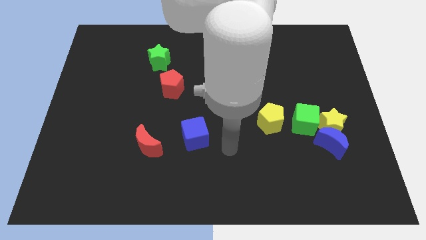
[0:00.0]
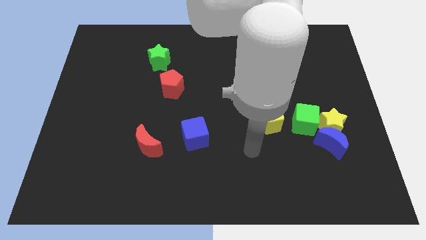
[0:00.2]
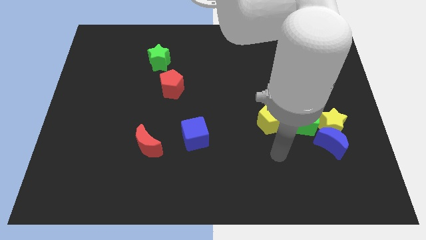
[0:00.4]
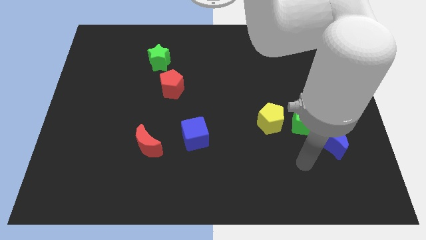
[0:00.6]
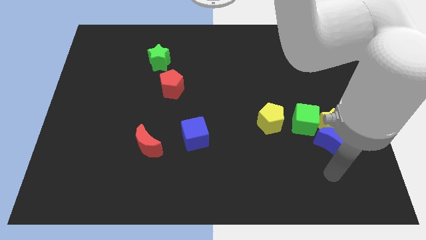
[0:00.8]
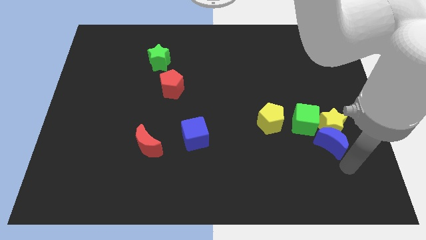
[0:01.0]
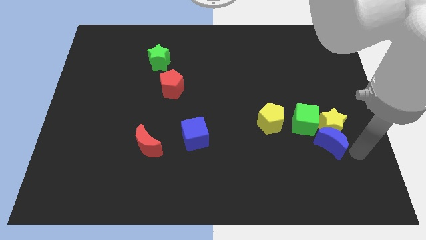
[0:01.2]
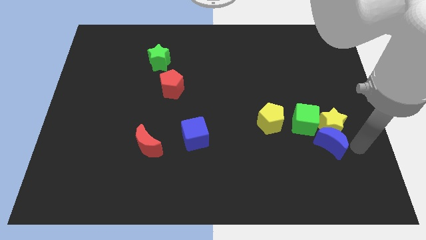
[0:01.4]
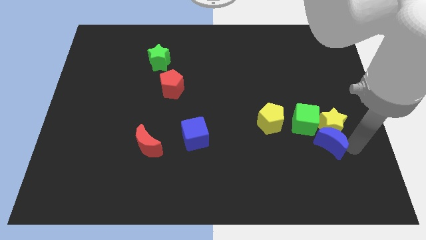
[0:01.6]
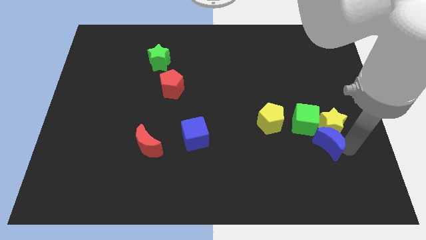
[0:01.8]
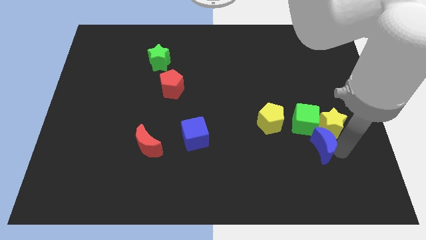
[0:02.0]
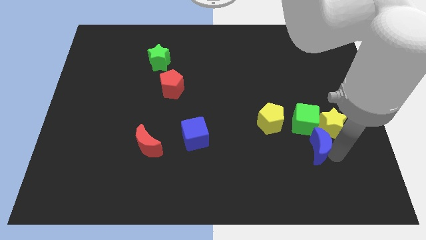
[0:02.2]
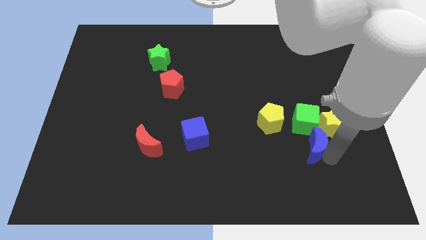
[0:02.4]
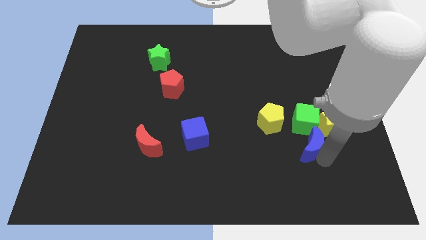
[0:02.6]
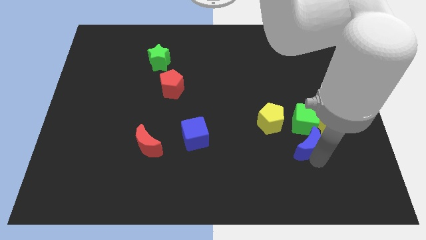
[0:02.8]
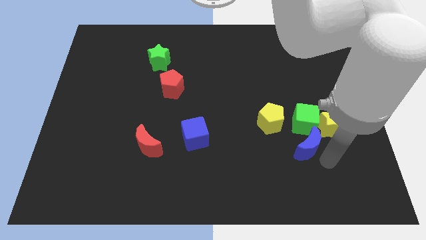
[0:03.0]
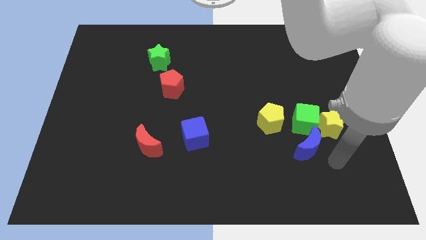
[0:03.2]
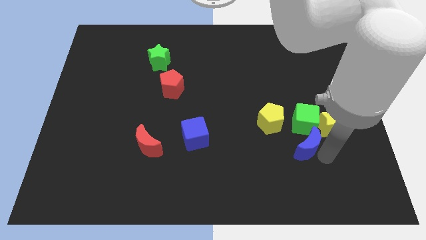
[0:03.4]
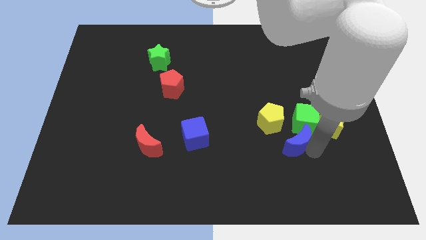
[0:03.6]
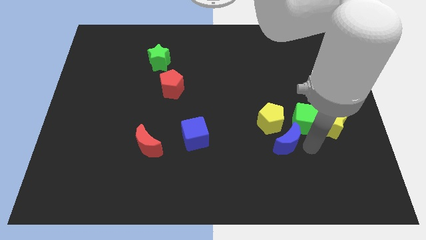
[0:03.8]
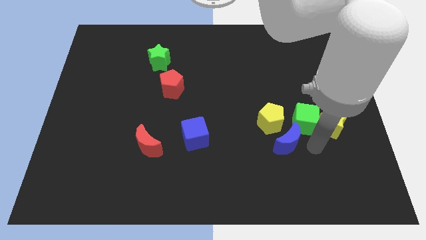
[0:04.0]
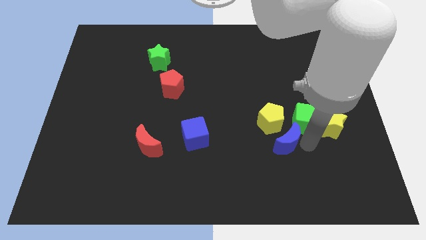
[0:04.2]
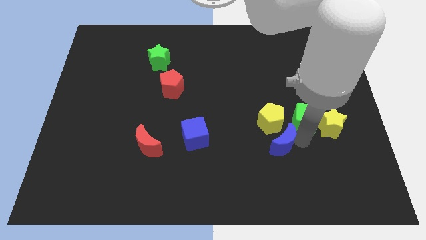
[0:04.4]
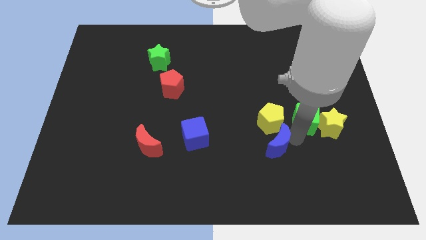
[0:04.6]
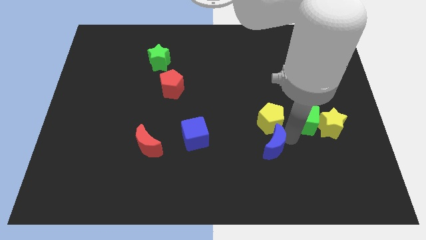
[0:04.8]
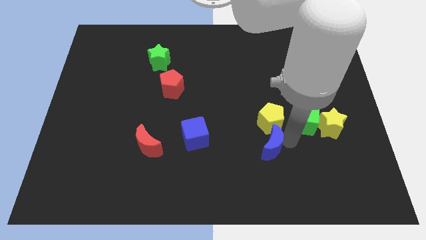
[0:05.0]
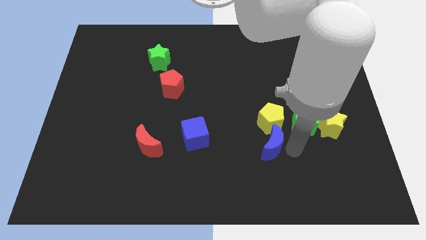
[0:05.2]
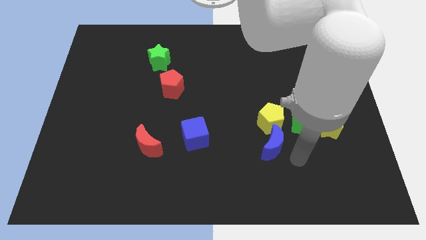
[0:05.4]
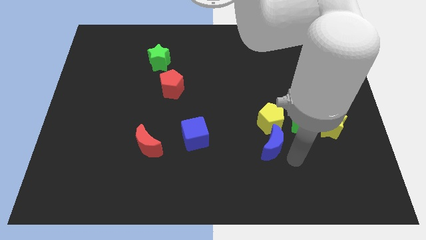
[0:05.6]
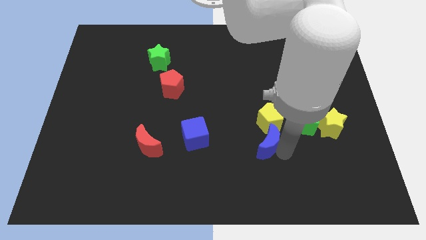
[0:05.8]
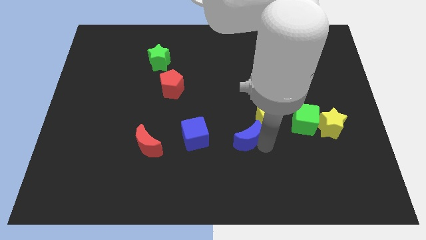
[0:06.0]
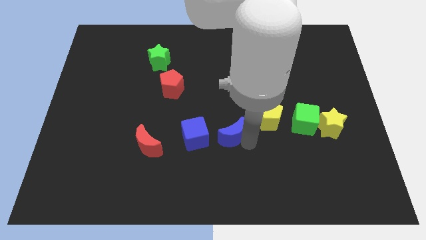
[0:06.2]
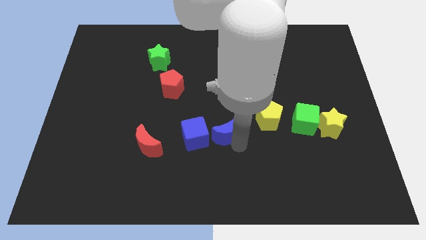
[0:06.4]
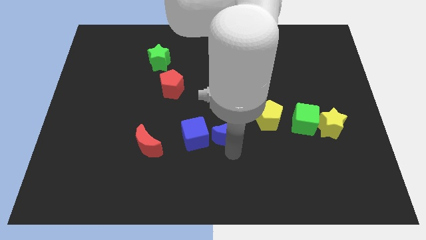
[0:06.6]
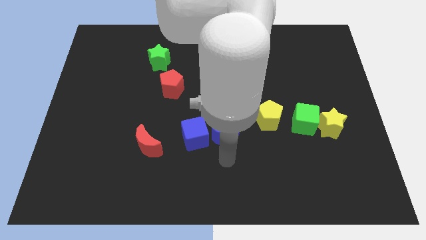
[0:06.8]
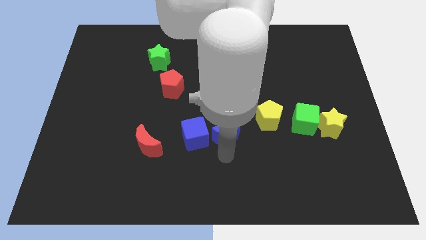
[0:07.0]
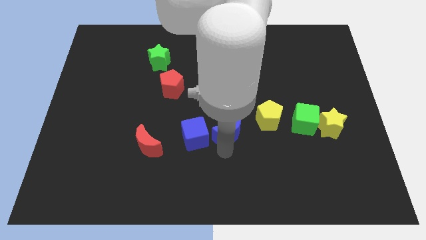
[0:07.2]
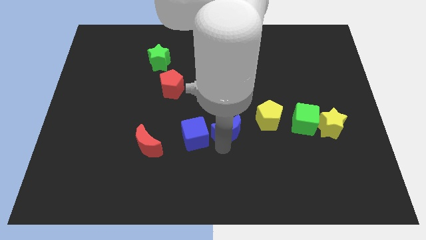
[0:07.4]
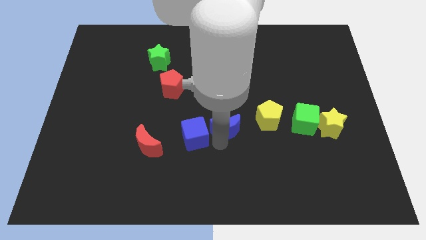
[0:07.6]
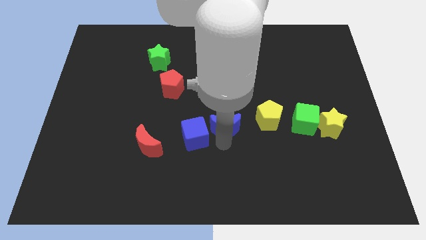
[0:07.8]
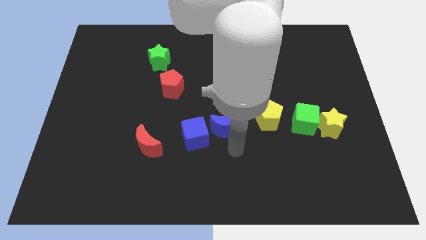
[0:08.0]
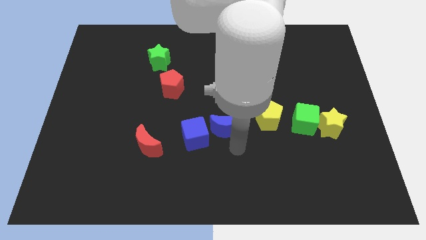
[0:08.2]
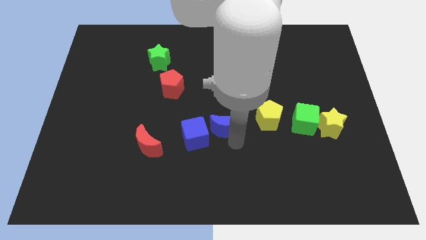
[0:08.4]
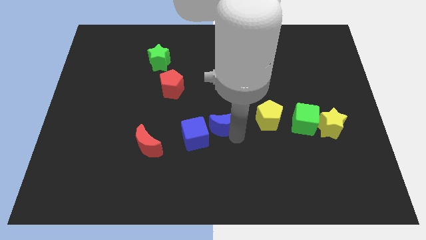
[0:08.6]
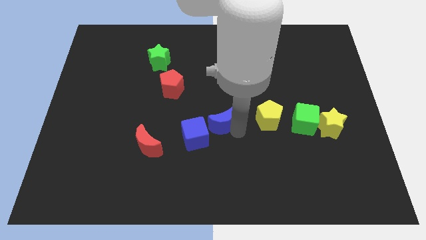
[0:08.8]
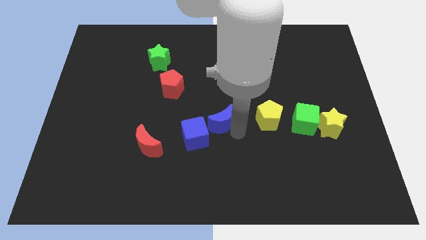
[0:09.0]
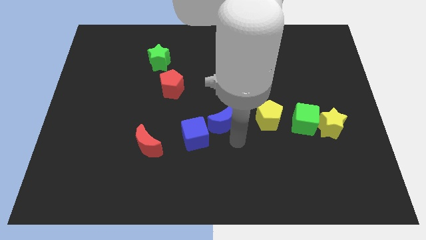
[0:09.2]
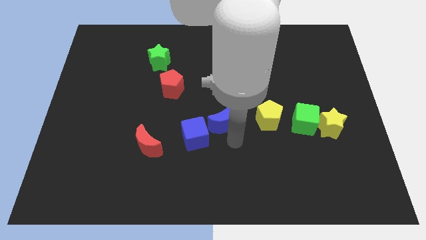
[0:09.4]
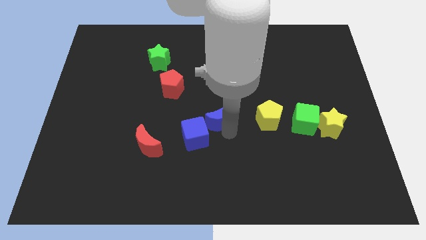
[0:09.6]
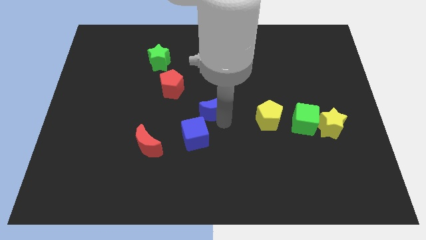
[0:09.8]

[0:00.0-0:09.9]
put the blue moon to the bottom right side of the red pentagon
